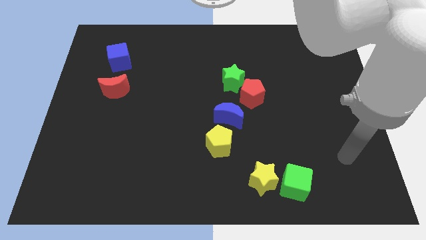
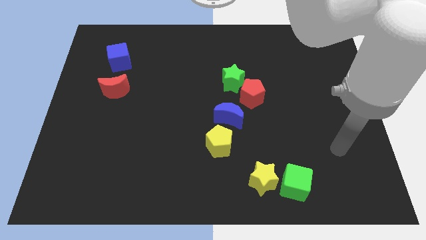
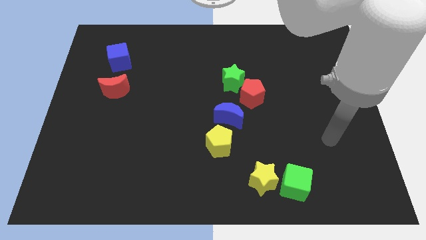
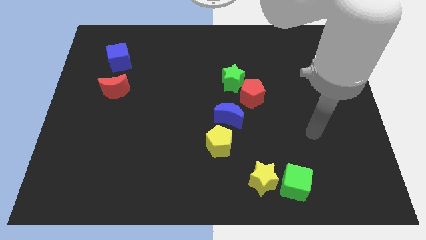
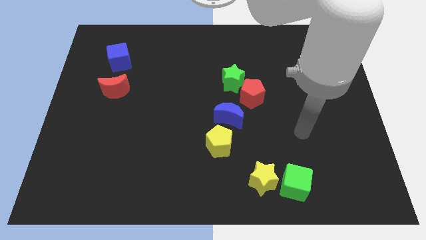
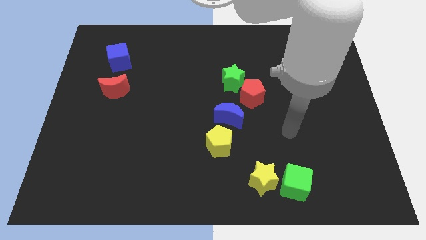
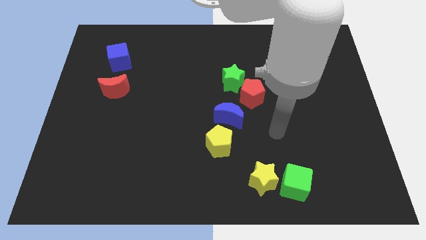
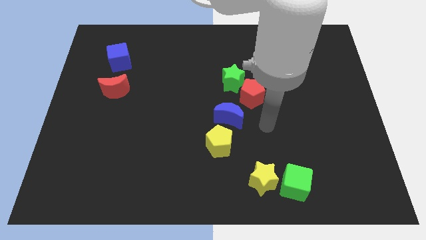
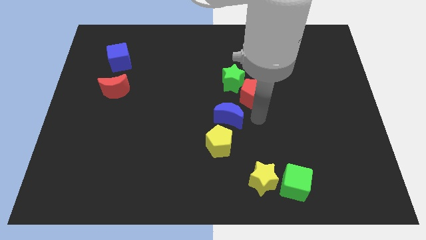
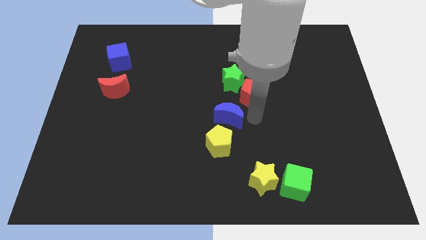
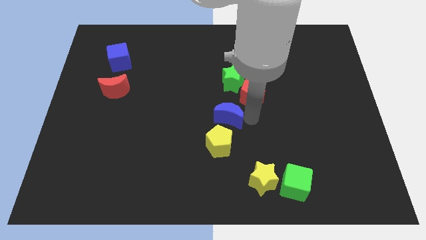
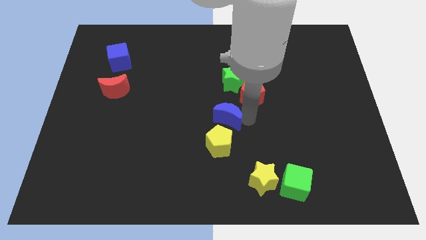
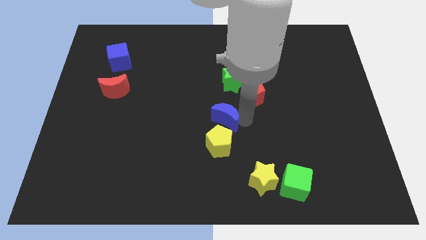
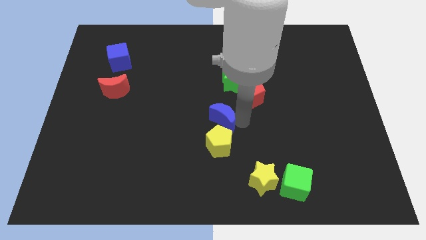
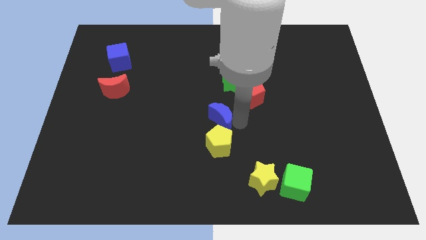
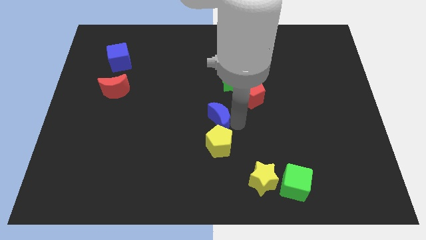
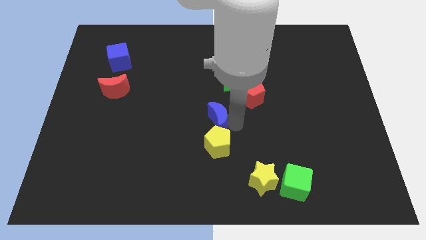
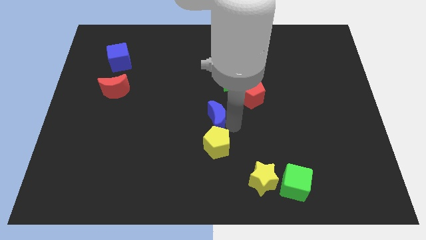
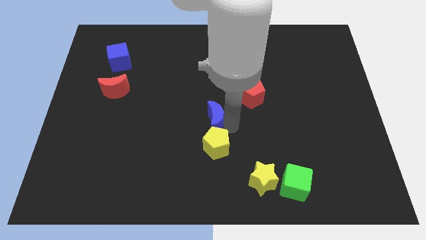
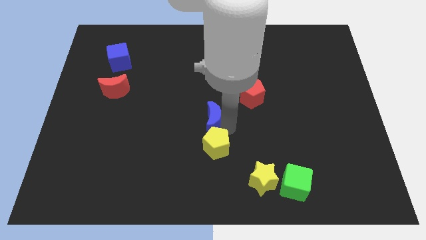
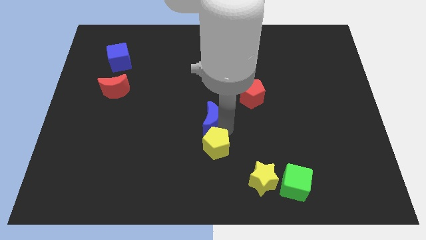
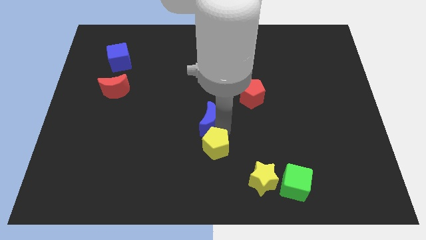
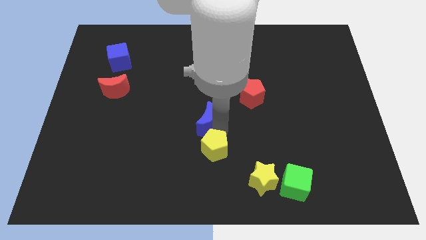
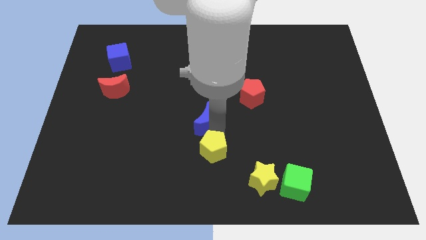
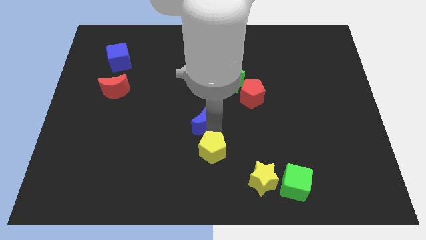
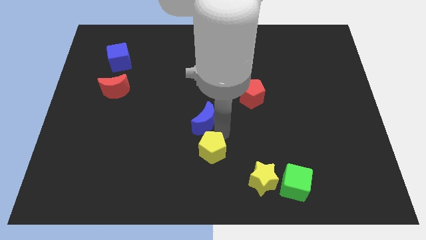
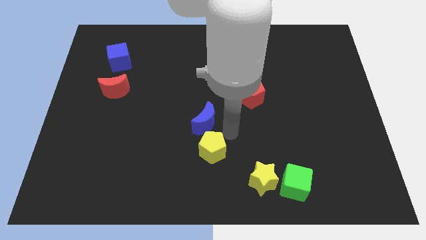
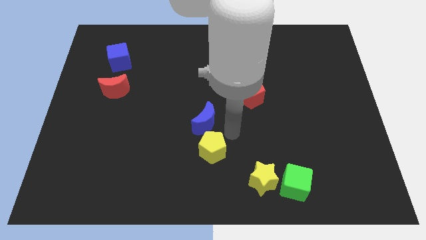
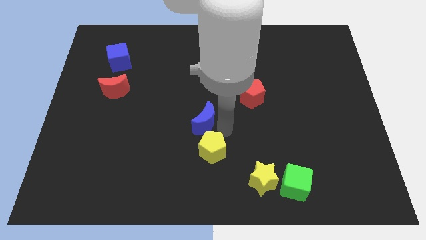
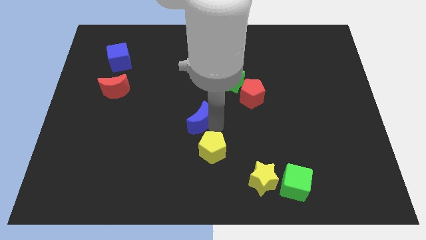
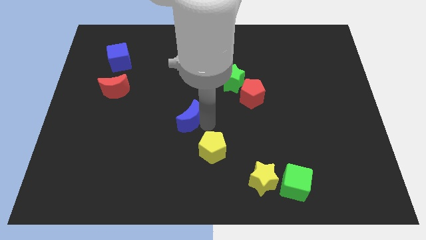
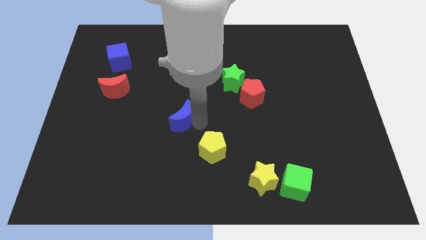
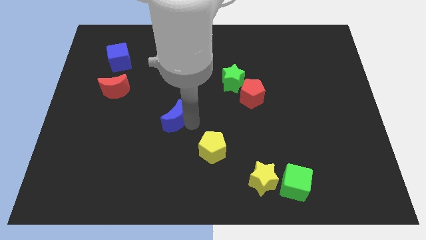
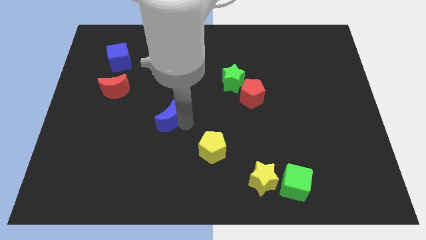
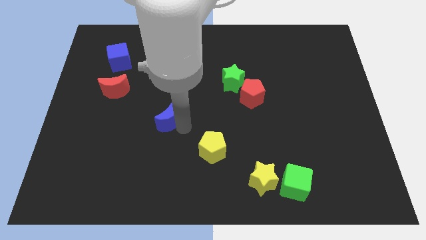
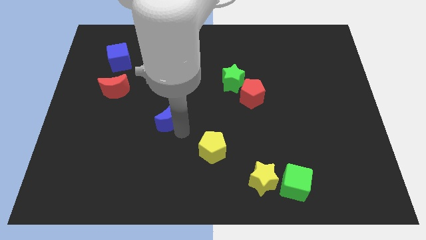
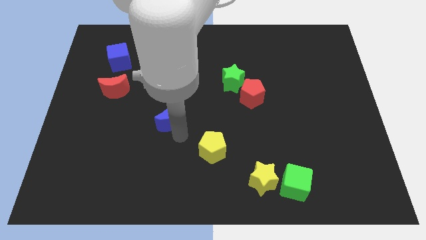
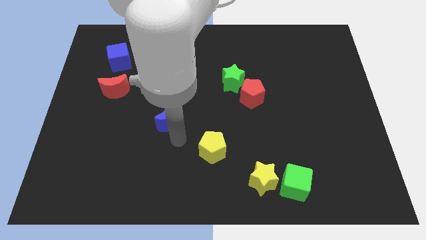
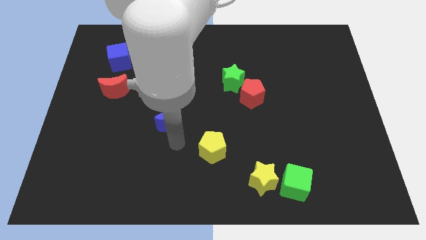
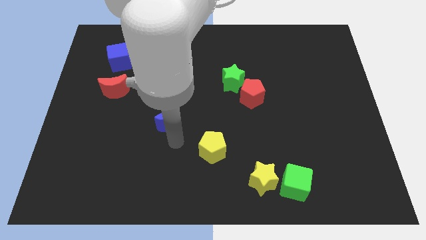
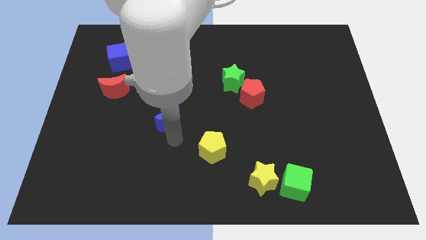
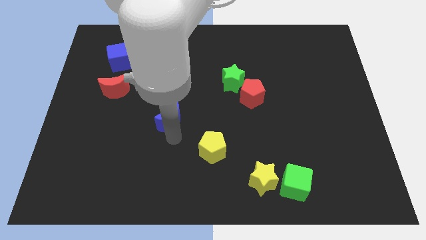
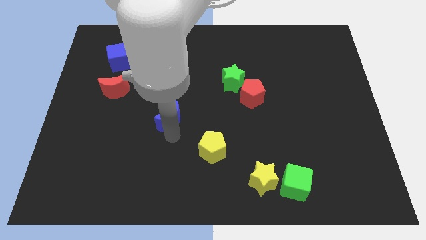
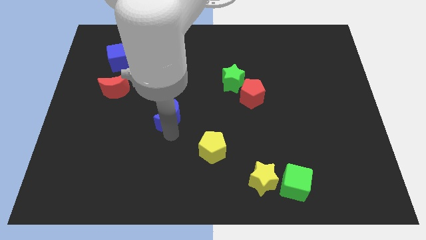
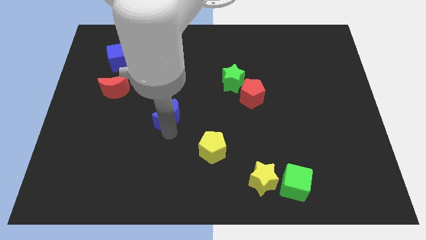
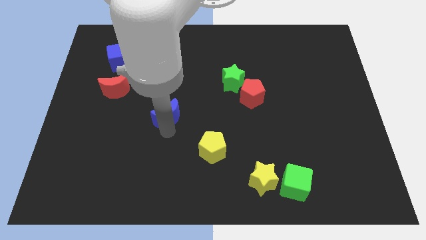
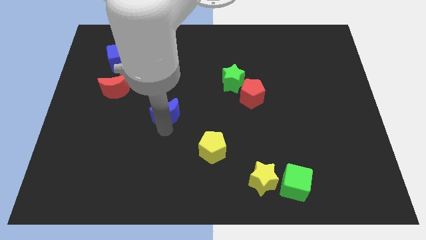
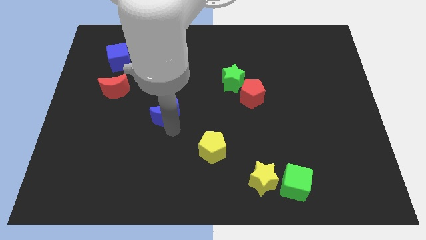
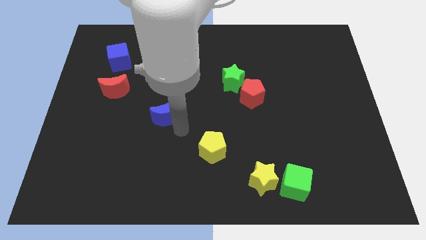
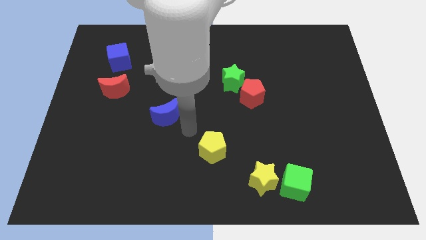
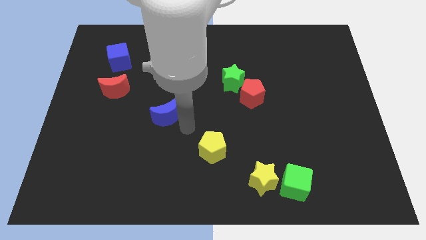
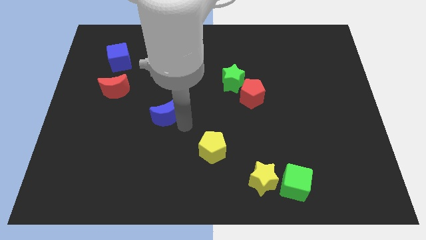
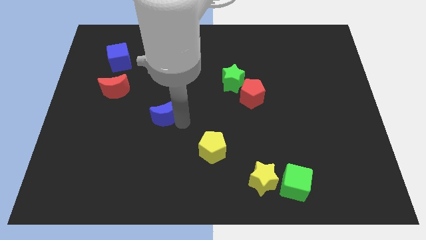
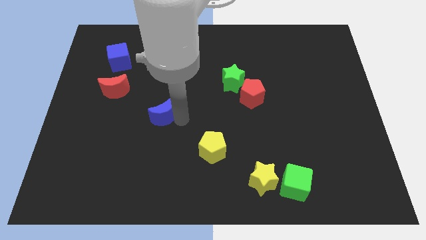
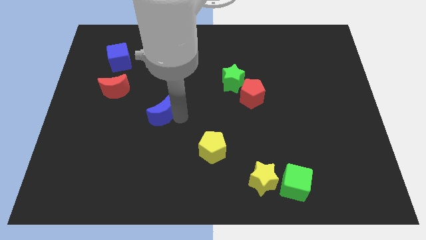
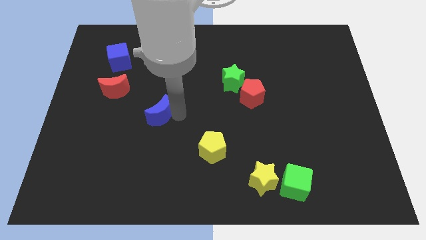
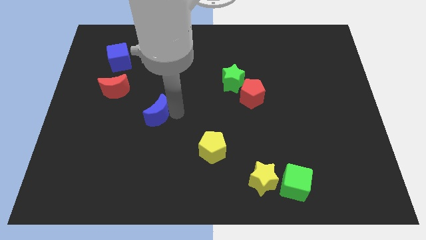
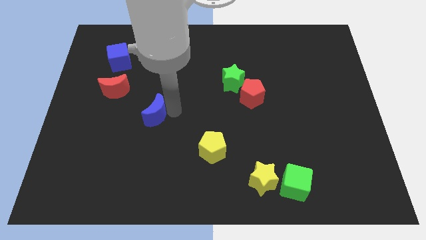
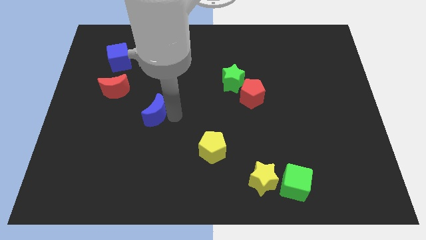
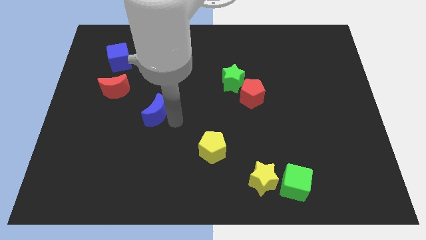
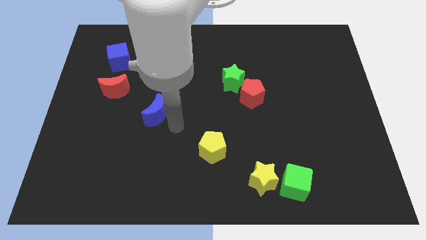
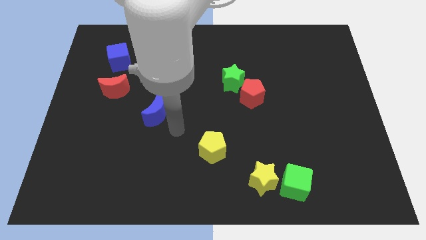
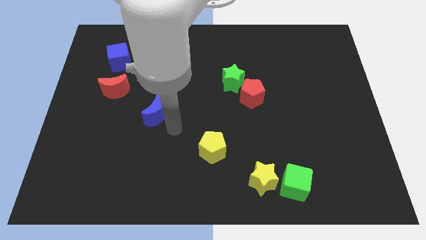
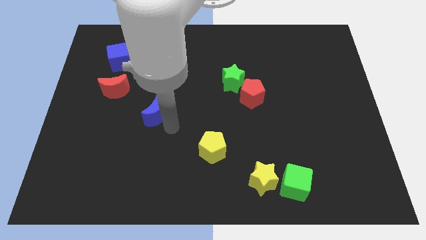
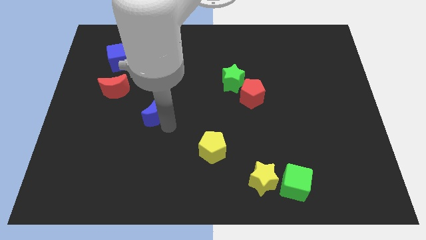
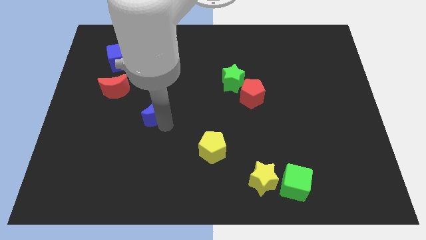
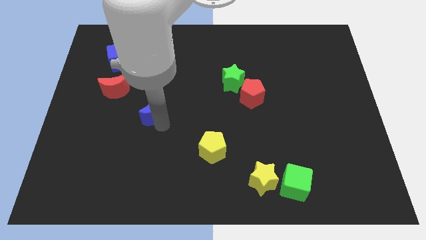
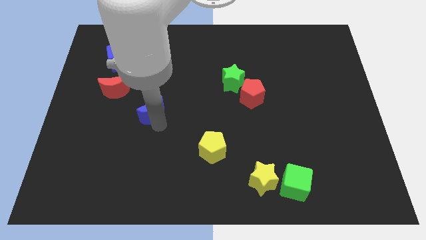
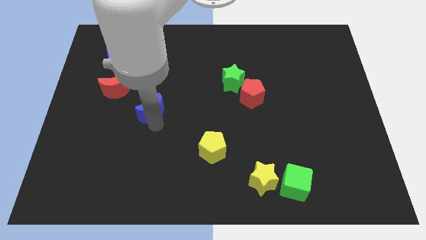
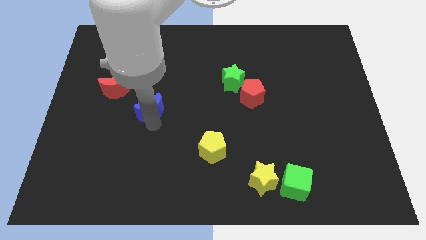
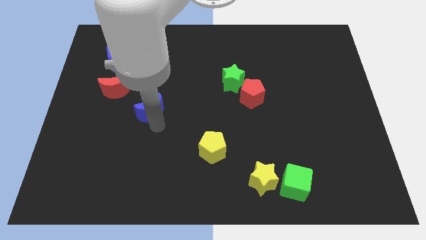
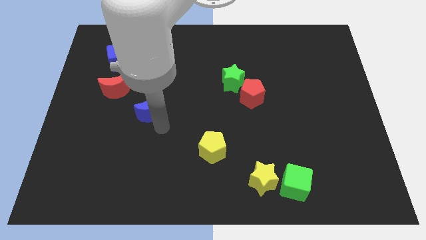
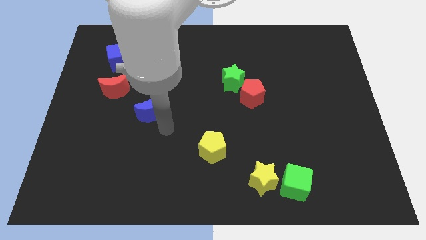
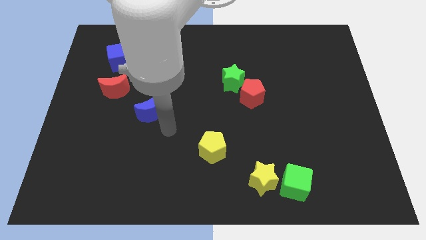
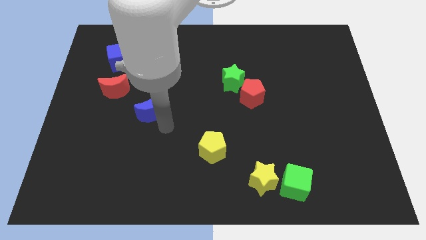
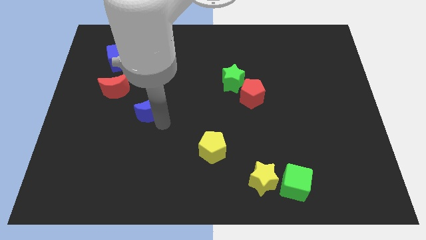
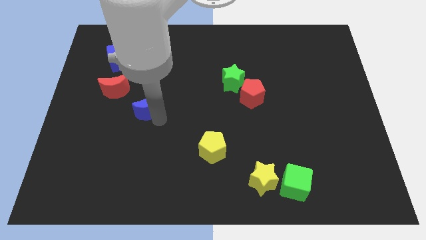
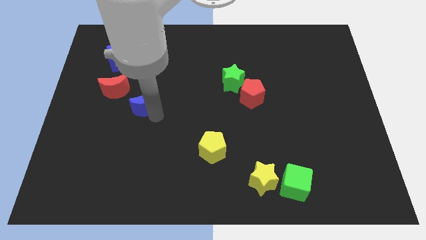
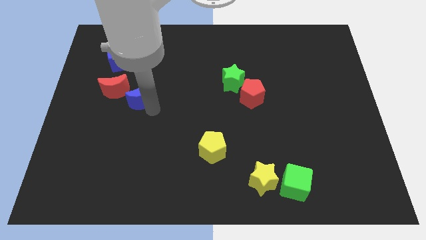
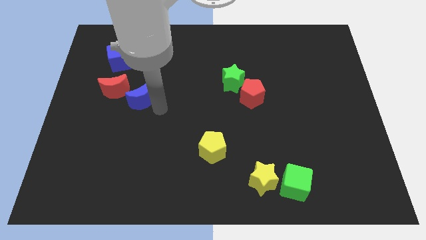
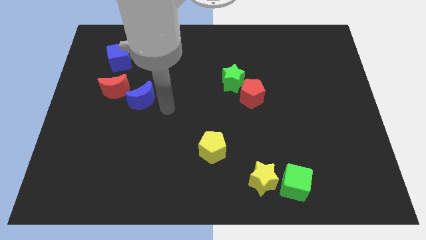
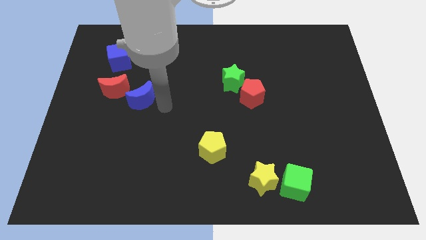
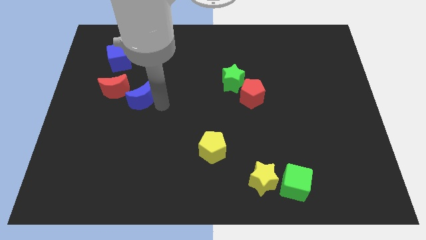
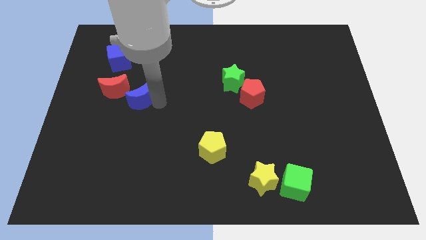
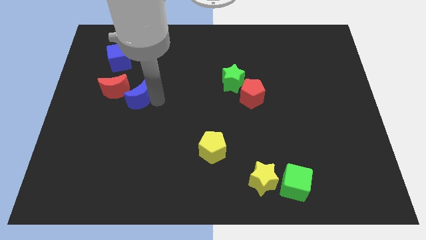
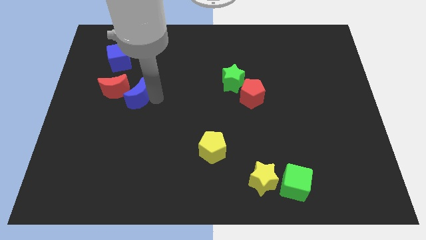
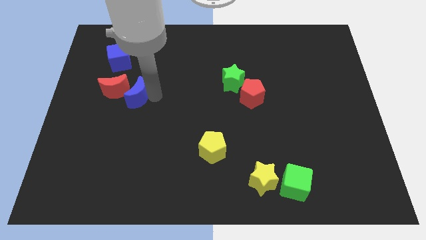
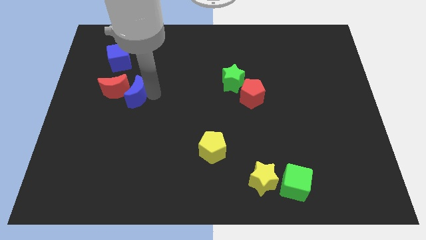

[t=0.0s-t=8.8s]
slide the blue moon next to the red moon
